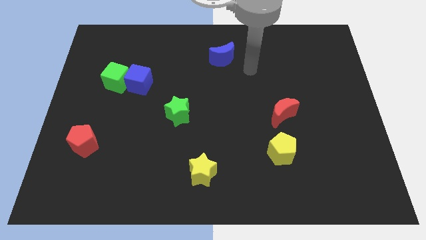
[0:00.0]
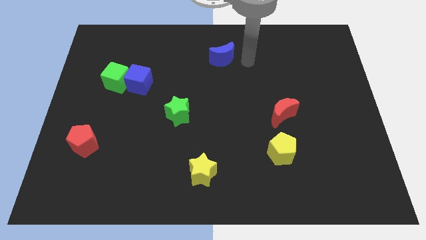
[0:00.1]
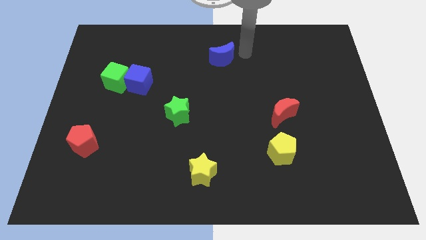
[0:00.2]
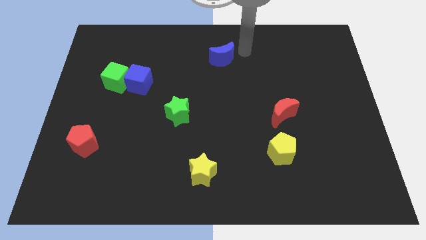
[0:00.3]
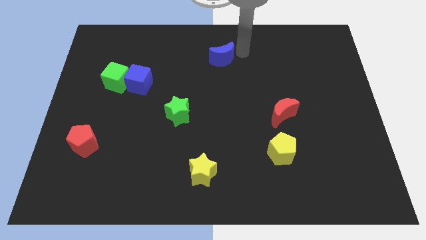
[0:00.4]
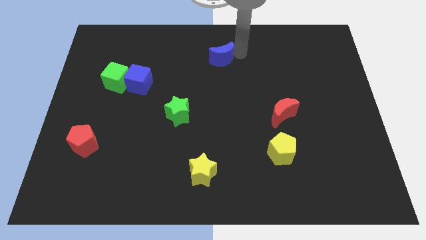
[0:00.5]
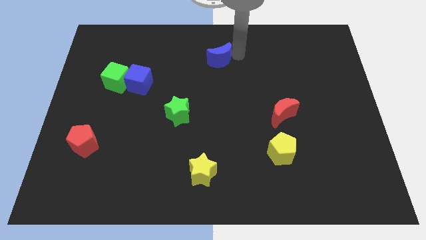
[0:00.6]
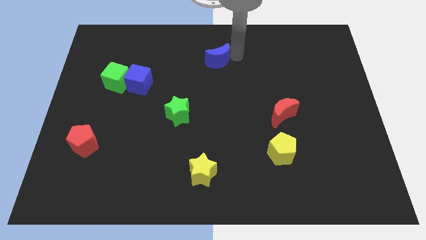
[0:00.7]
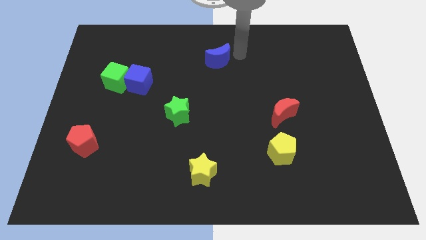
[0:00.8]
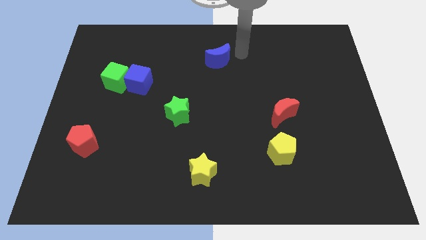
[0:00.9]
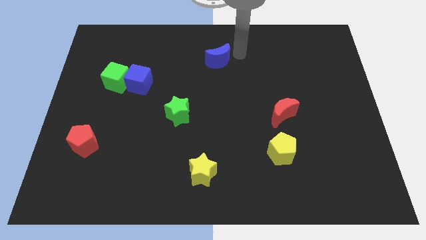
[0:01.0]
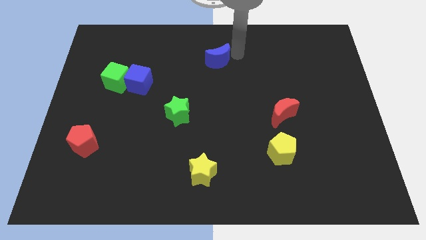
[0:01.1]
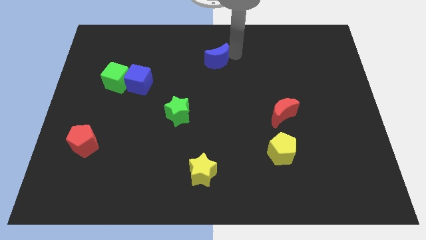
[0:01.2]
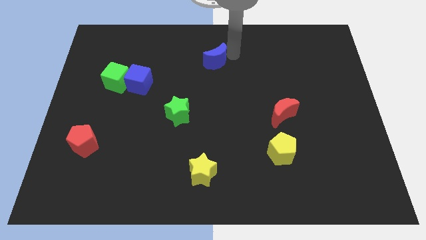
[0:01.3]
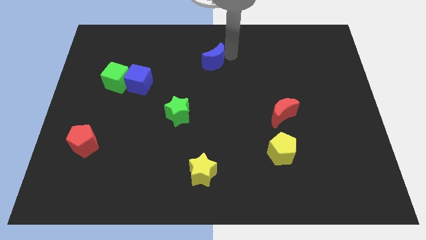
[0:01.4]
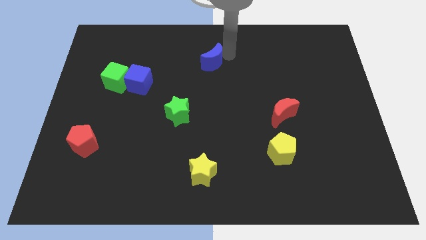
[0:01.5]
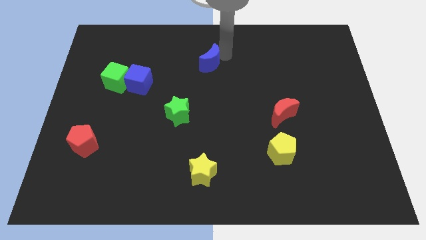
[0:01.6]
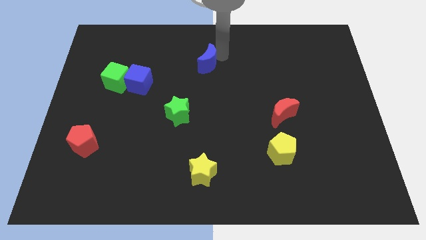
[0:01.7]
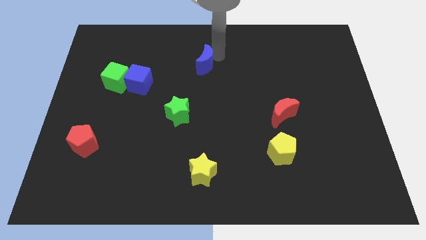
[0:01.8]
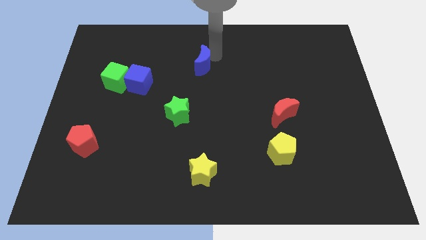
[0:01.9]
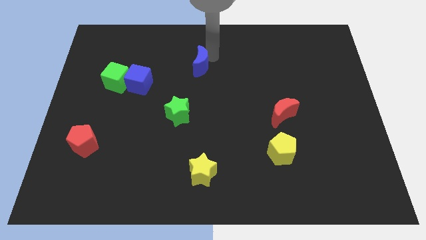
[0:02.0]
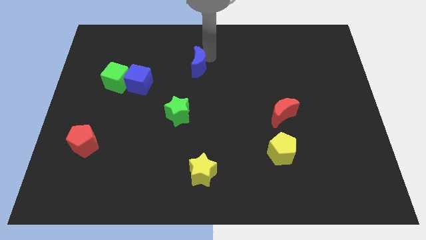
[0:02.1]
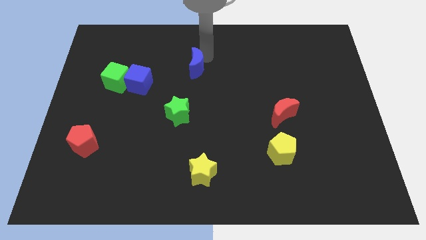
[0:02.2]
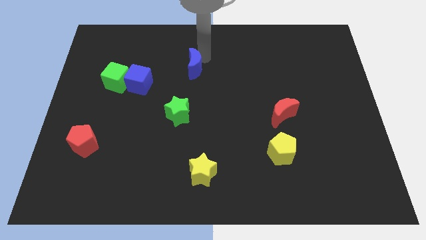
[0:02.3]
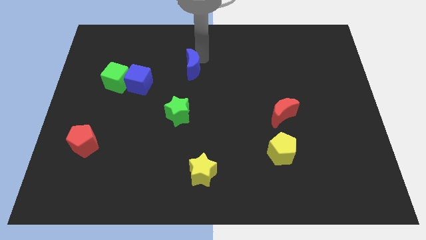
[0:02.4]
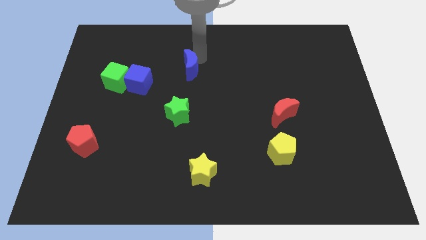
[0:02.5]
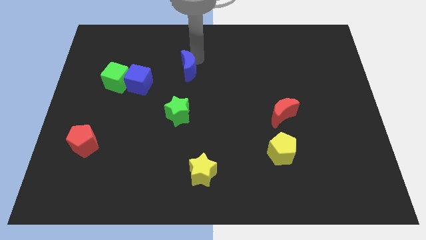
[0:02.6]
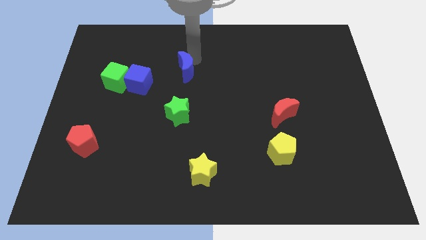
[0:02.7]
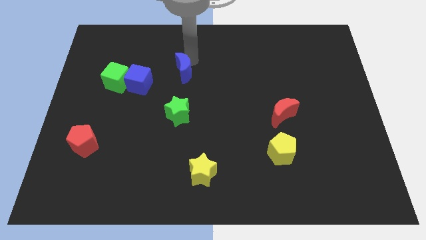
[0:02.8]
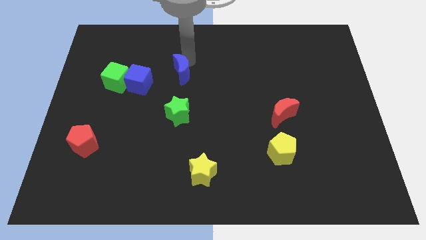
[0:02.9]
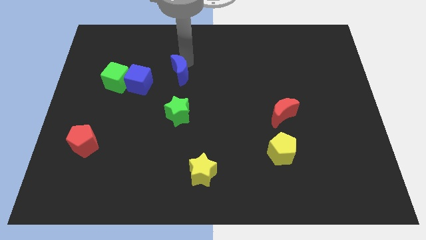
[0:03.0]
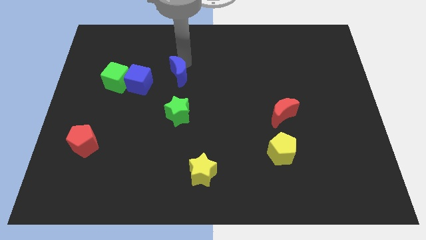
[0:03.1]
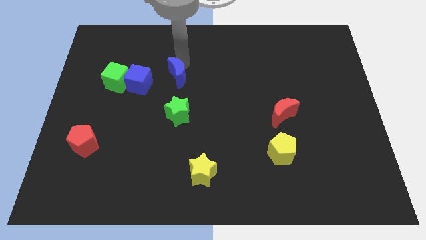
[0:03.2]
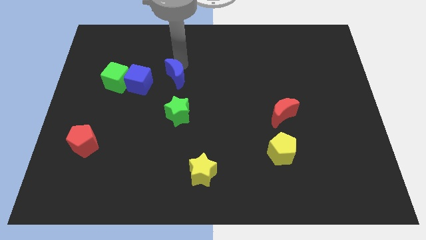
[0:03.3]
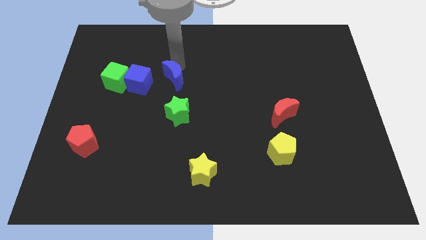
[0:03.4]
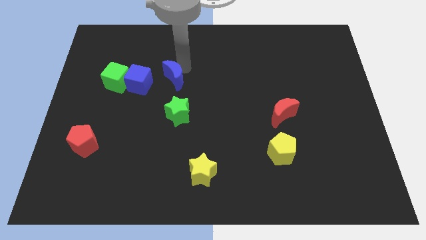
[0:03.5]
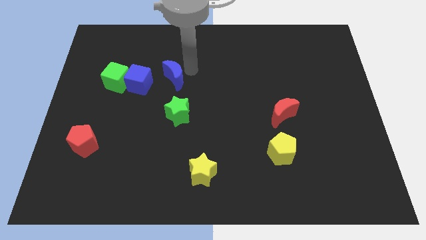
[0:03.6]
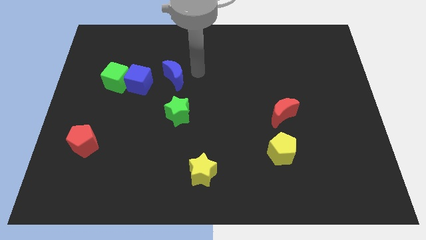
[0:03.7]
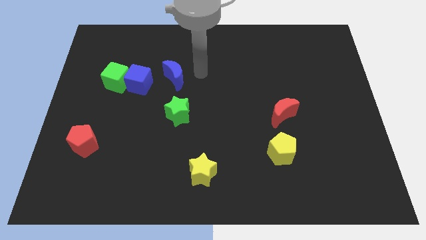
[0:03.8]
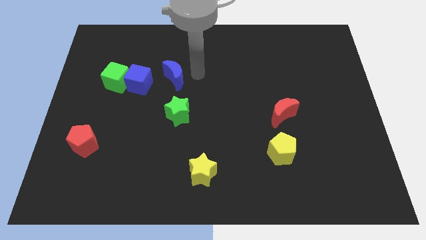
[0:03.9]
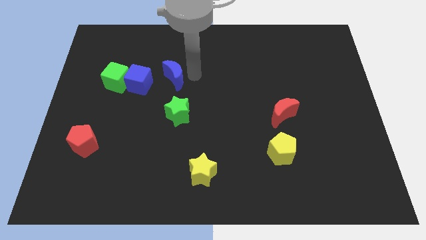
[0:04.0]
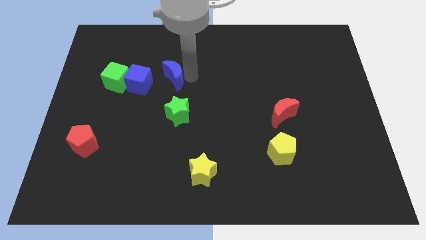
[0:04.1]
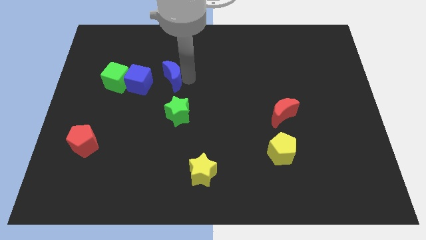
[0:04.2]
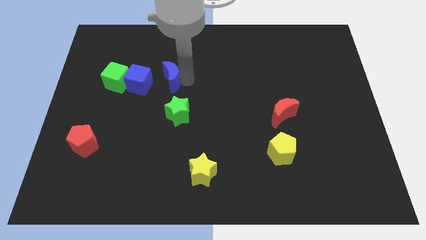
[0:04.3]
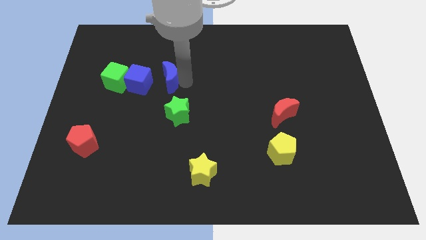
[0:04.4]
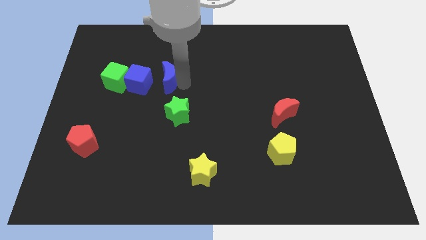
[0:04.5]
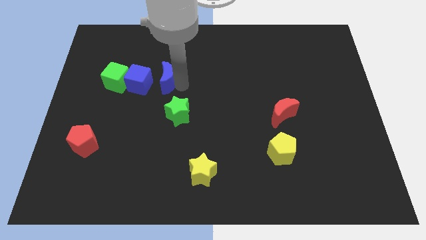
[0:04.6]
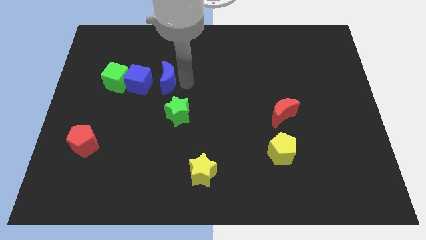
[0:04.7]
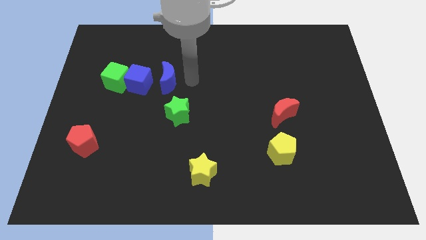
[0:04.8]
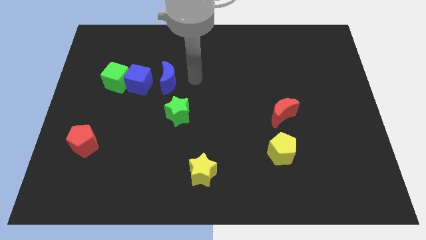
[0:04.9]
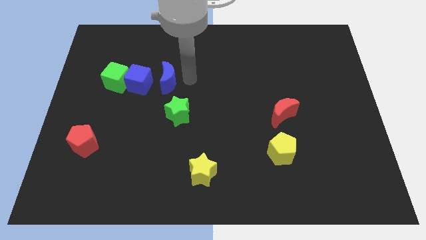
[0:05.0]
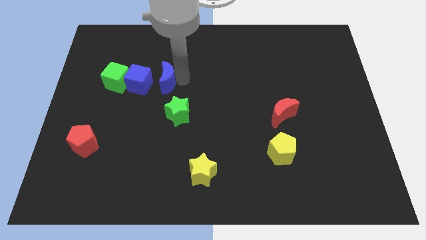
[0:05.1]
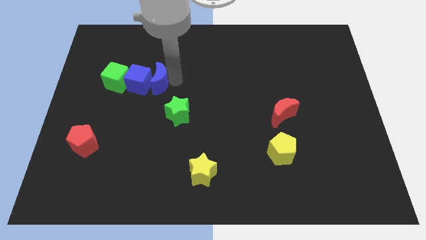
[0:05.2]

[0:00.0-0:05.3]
put the blue moon to the blue cube
